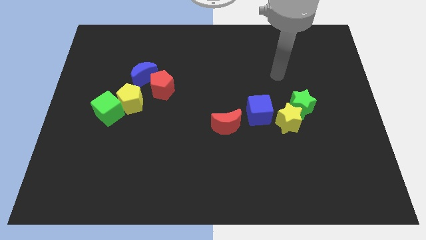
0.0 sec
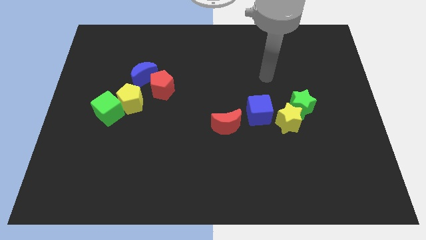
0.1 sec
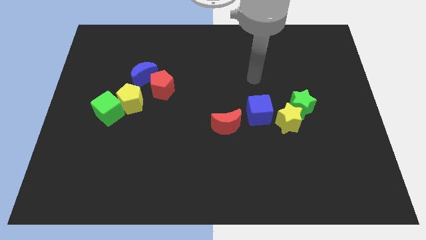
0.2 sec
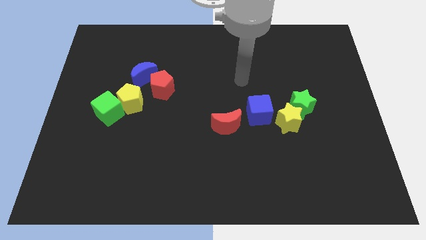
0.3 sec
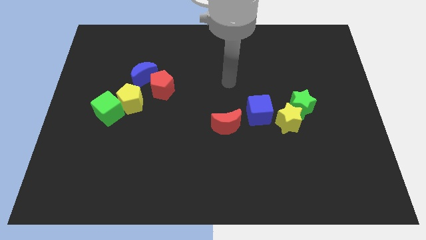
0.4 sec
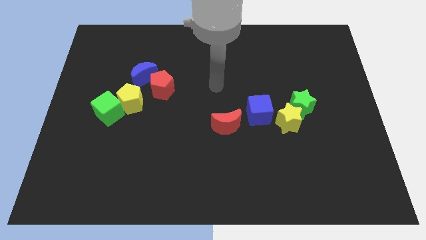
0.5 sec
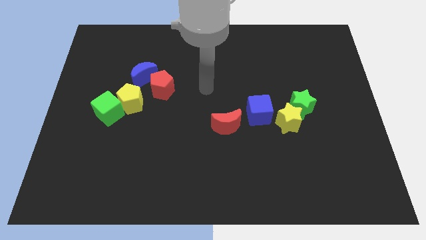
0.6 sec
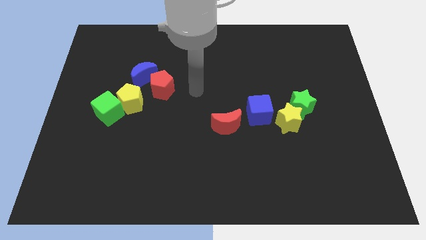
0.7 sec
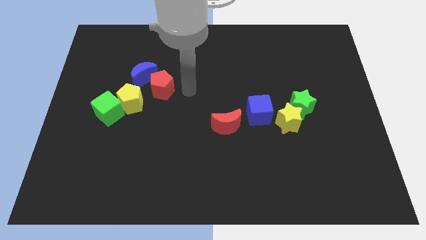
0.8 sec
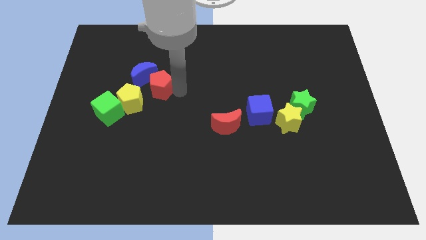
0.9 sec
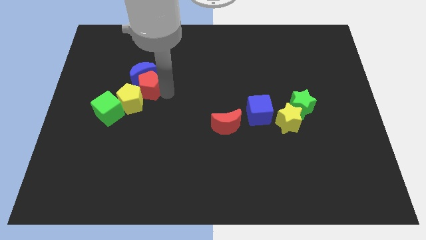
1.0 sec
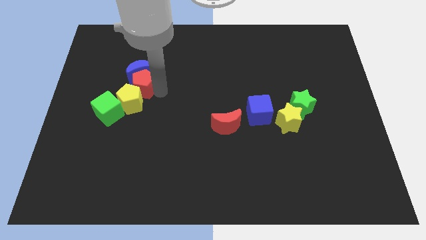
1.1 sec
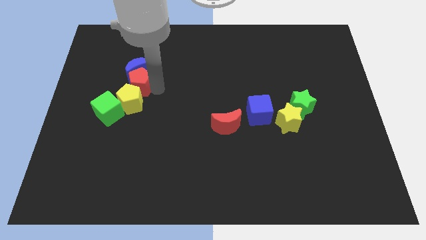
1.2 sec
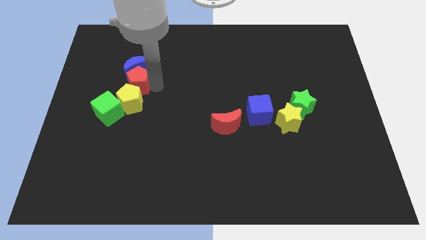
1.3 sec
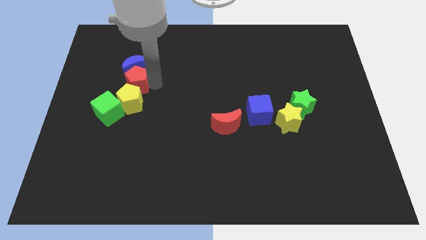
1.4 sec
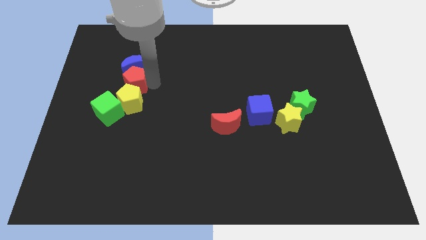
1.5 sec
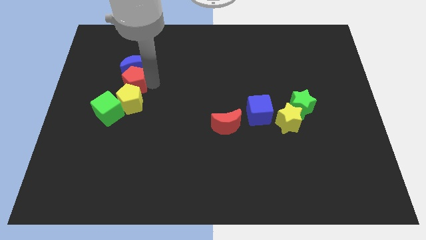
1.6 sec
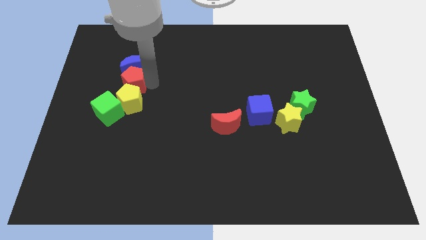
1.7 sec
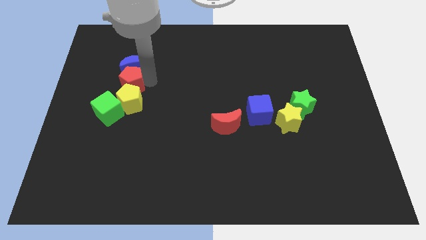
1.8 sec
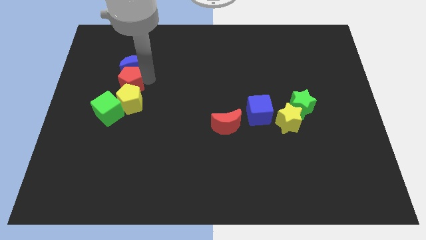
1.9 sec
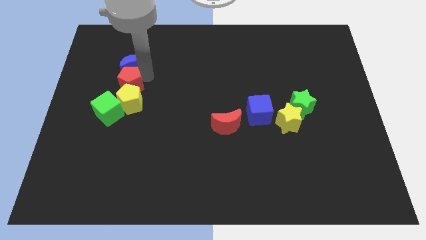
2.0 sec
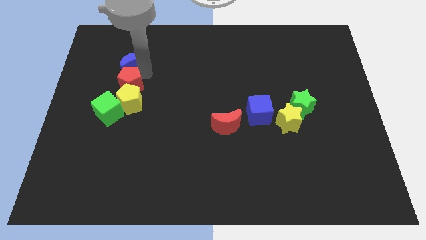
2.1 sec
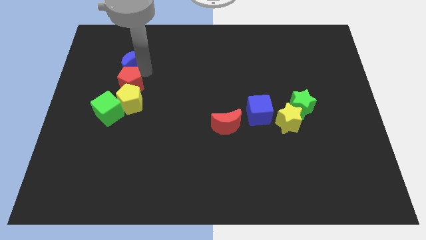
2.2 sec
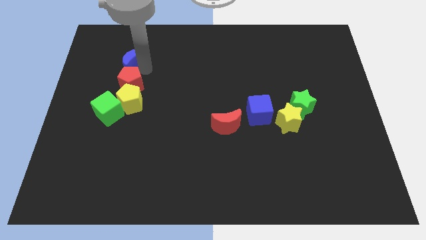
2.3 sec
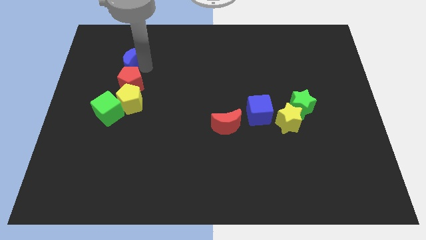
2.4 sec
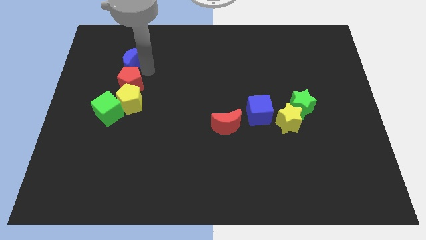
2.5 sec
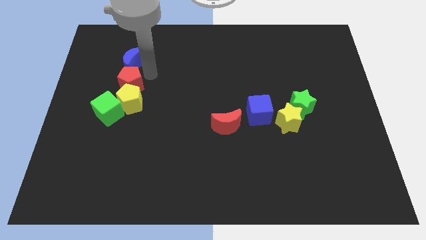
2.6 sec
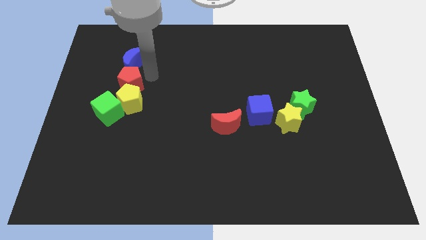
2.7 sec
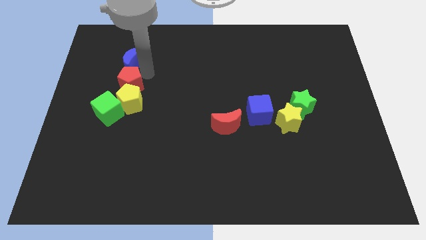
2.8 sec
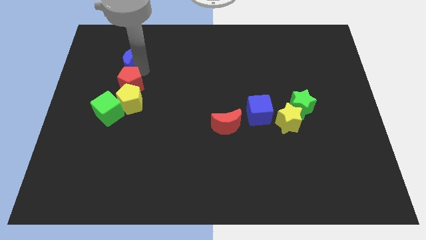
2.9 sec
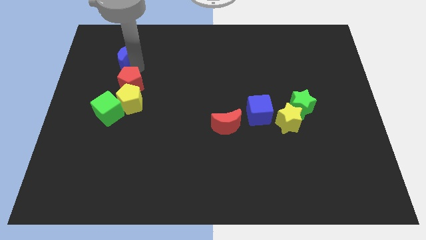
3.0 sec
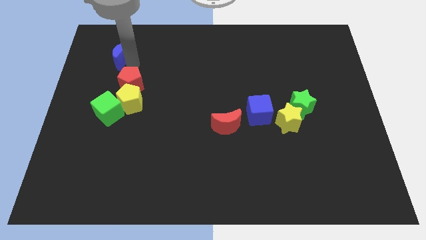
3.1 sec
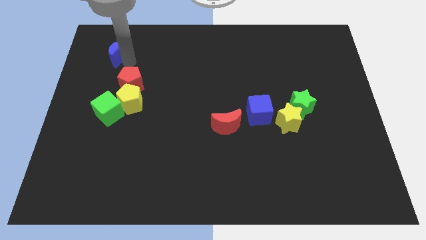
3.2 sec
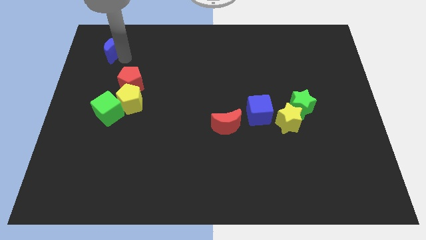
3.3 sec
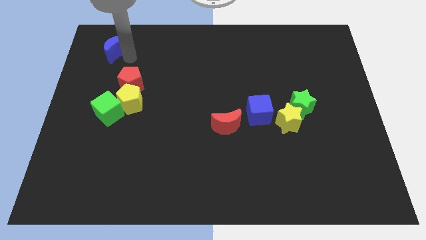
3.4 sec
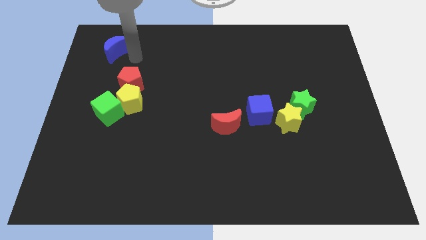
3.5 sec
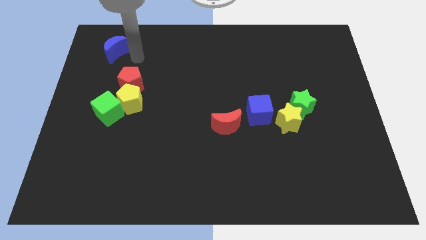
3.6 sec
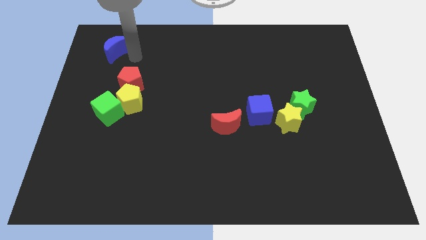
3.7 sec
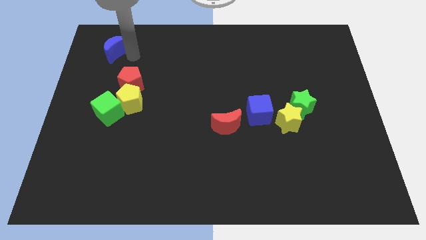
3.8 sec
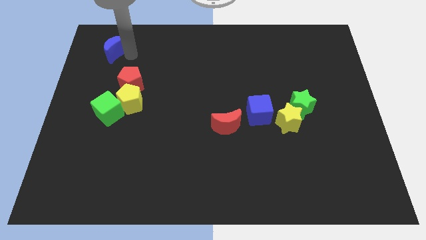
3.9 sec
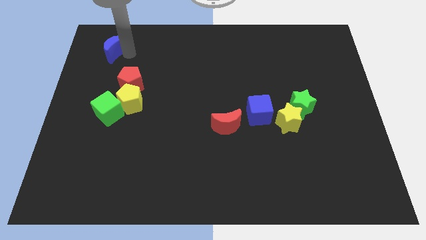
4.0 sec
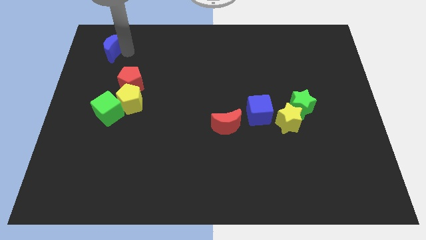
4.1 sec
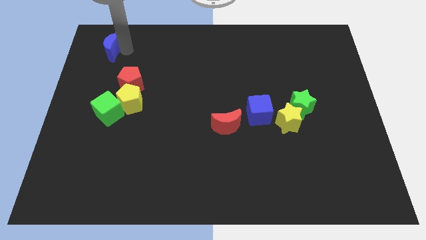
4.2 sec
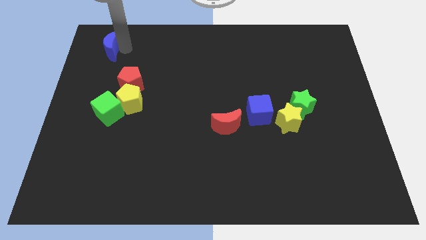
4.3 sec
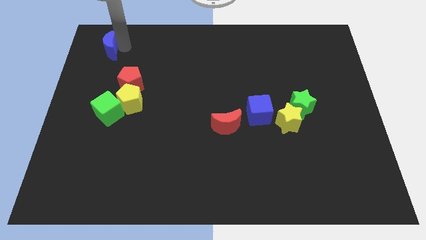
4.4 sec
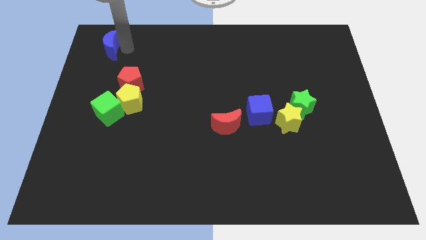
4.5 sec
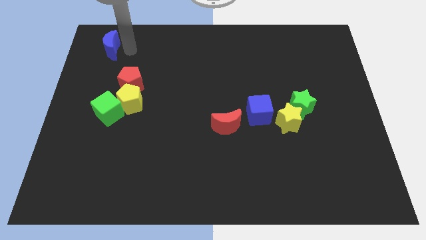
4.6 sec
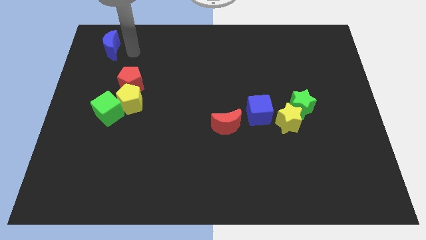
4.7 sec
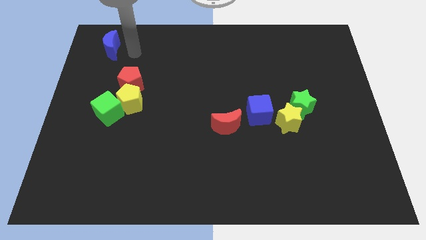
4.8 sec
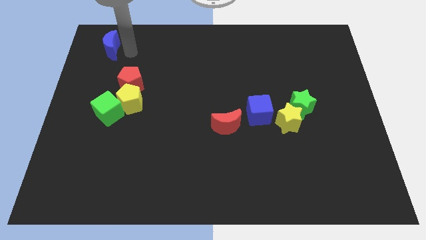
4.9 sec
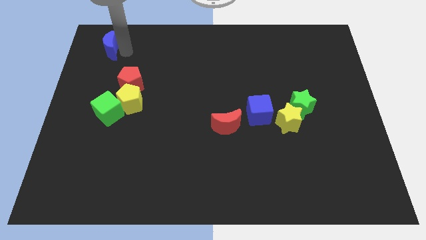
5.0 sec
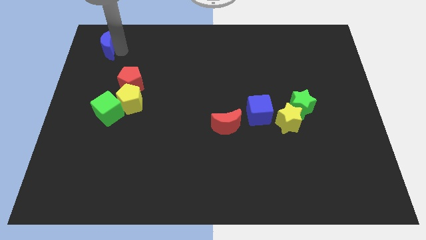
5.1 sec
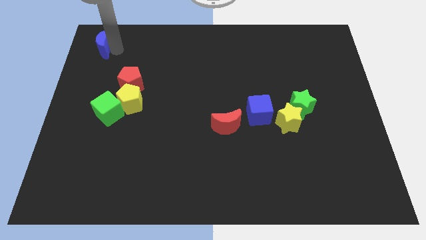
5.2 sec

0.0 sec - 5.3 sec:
slide the blue moon to the top left
